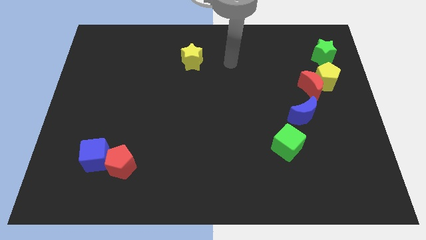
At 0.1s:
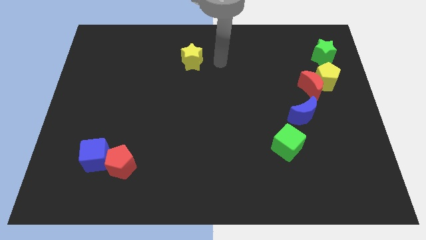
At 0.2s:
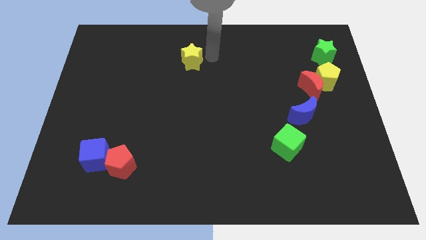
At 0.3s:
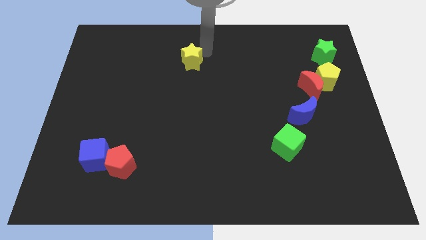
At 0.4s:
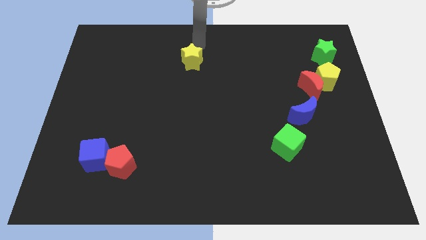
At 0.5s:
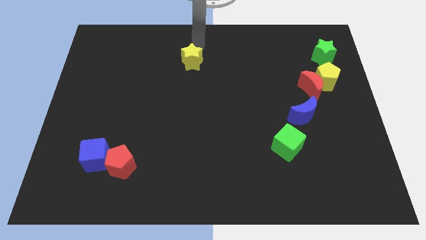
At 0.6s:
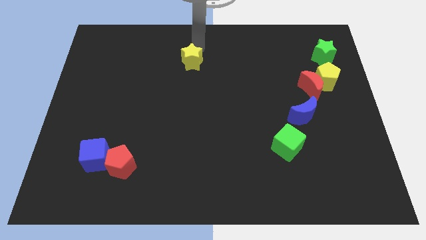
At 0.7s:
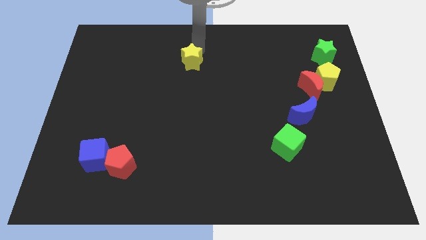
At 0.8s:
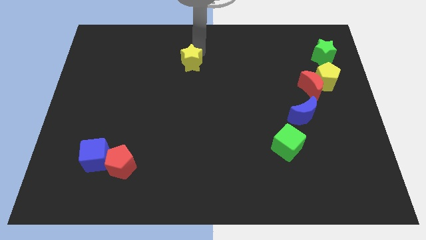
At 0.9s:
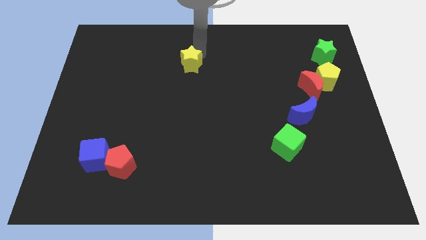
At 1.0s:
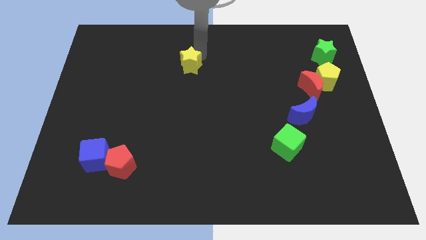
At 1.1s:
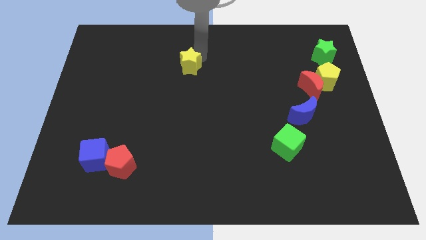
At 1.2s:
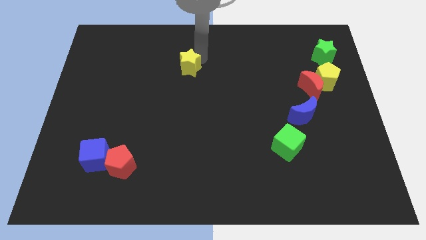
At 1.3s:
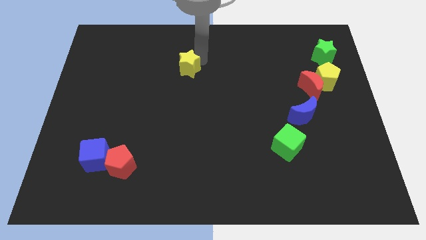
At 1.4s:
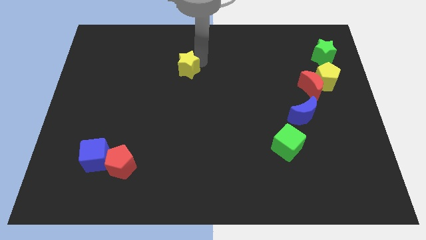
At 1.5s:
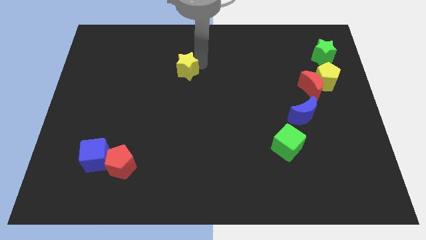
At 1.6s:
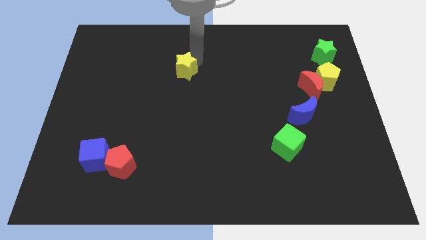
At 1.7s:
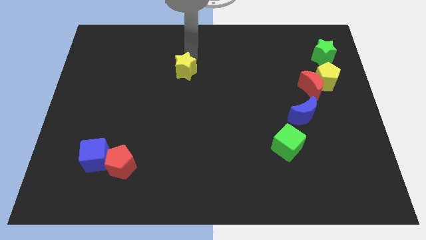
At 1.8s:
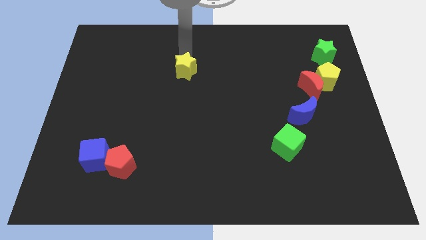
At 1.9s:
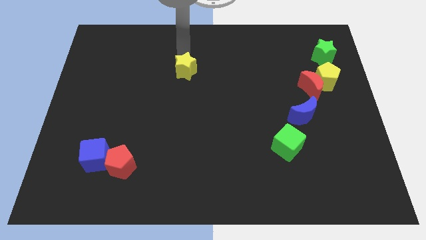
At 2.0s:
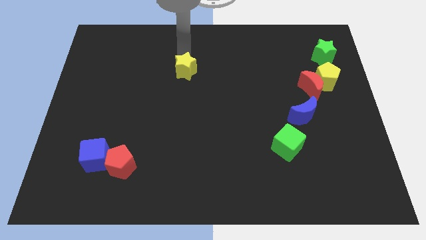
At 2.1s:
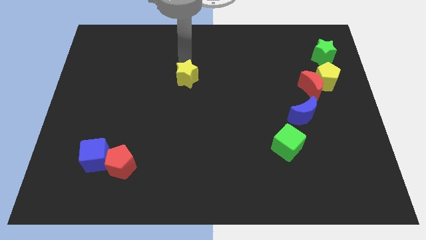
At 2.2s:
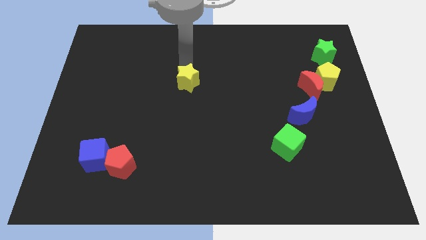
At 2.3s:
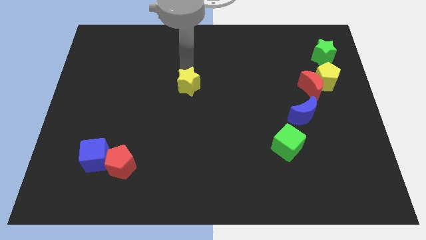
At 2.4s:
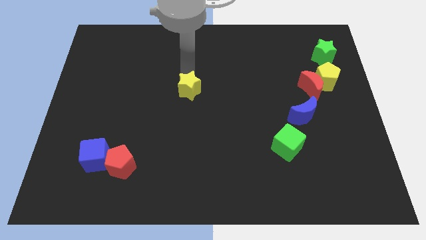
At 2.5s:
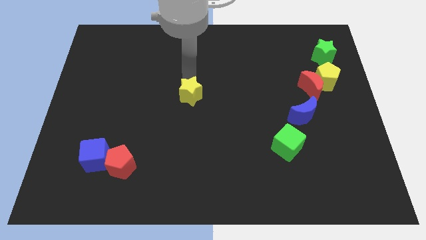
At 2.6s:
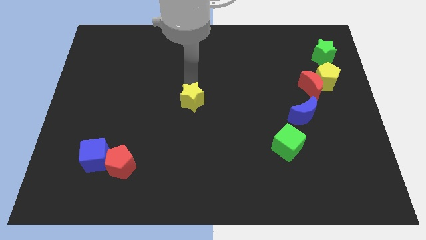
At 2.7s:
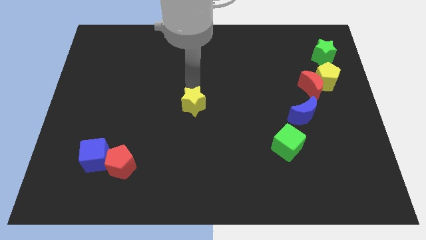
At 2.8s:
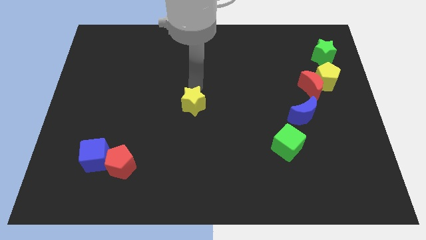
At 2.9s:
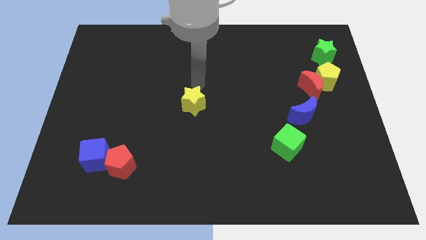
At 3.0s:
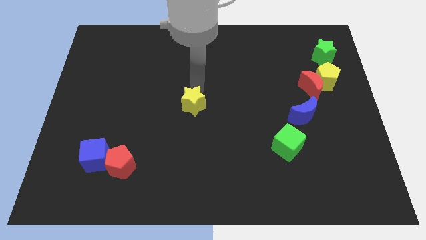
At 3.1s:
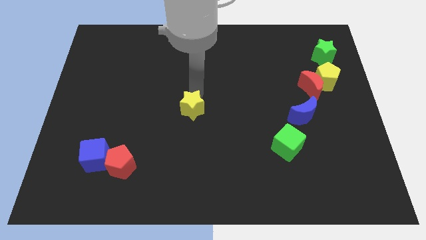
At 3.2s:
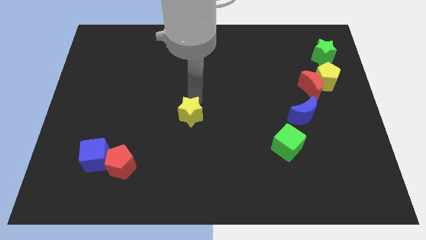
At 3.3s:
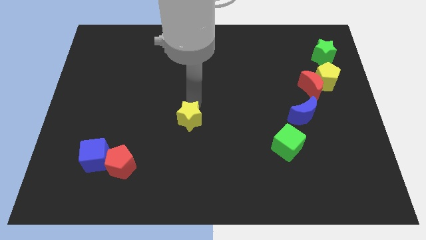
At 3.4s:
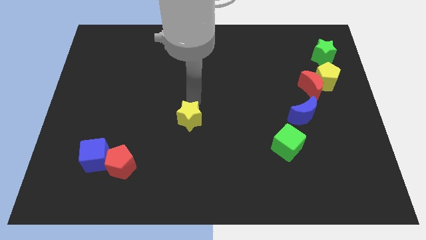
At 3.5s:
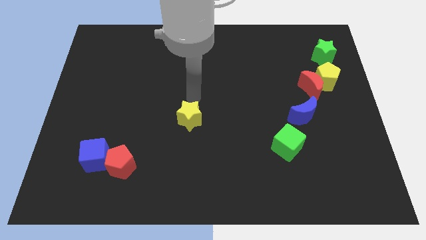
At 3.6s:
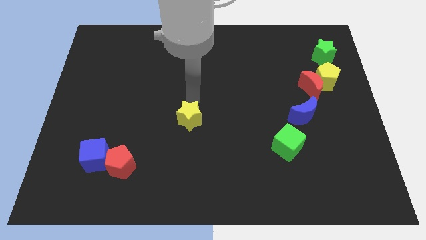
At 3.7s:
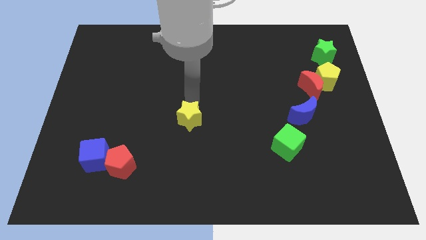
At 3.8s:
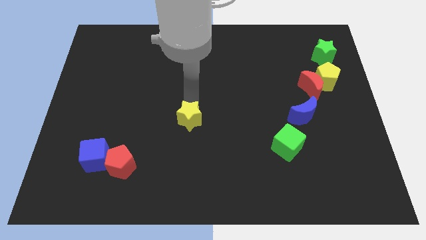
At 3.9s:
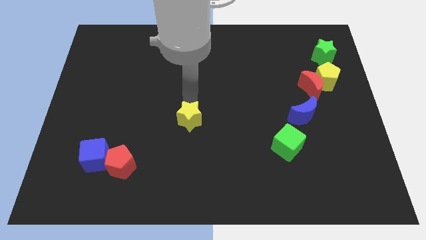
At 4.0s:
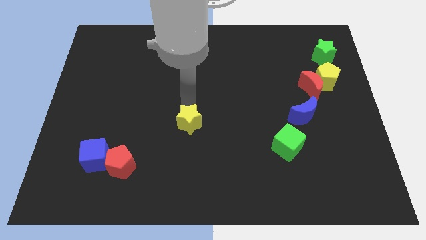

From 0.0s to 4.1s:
push the yellow star downwards

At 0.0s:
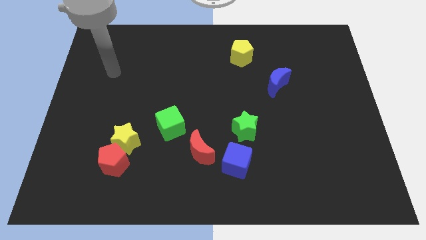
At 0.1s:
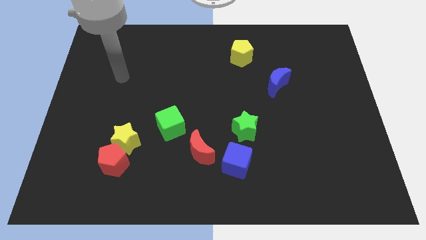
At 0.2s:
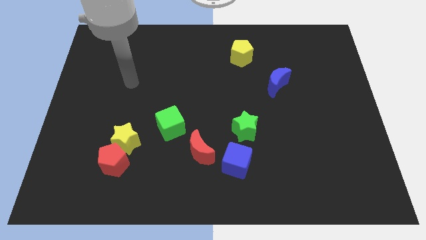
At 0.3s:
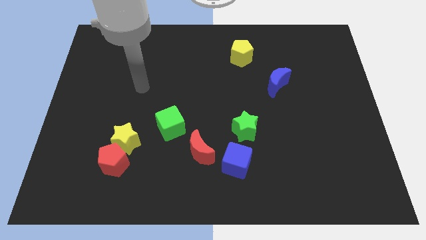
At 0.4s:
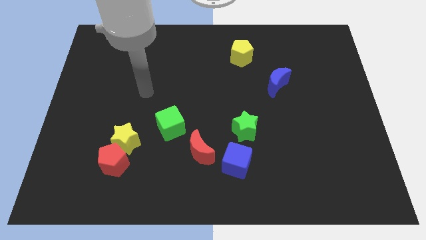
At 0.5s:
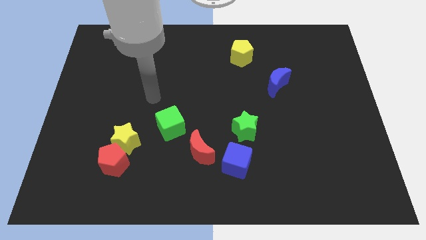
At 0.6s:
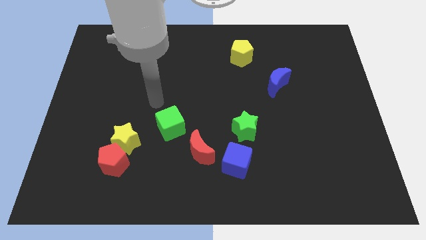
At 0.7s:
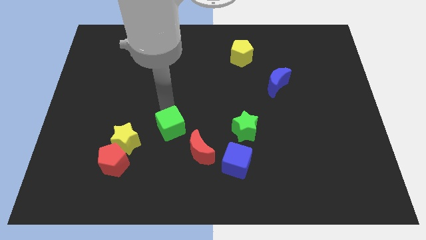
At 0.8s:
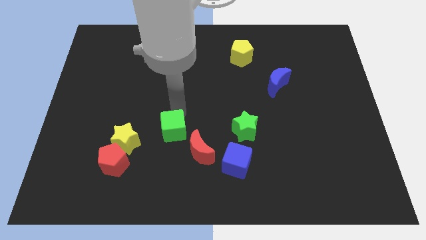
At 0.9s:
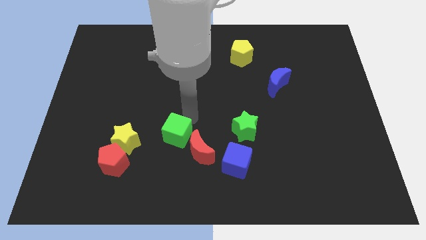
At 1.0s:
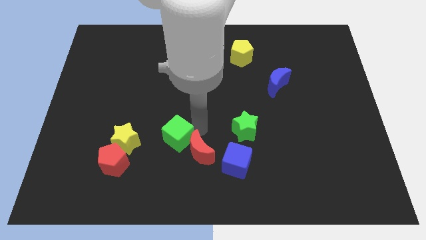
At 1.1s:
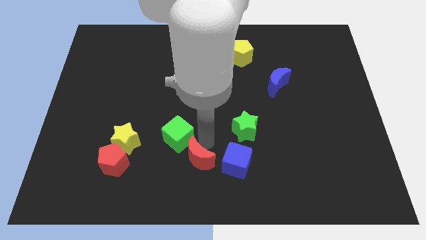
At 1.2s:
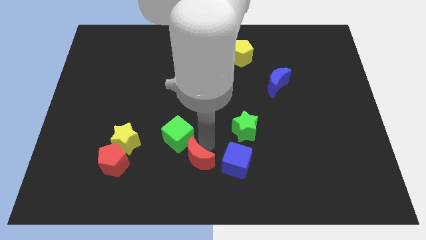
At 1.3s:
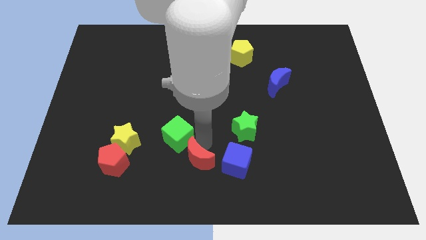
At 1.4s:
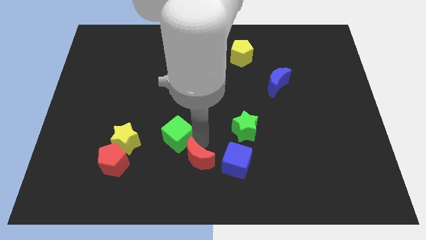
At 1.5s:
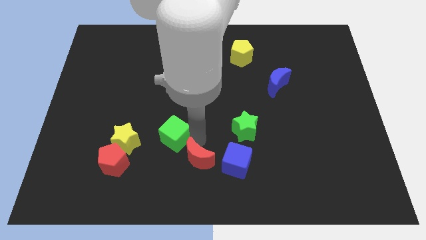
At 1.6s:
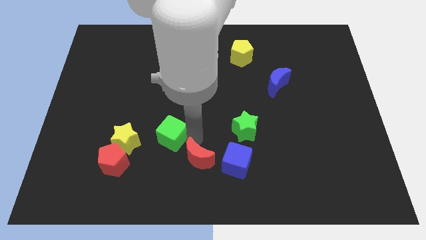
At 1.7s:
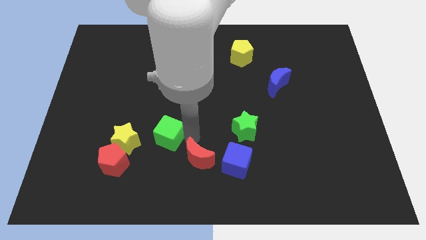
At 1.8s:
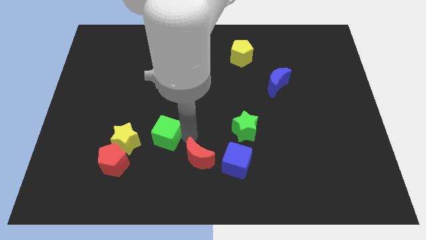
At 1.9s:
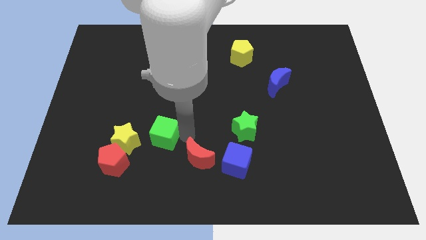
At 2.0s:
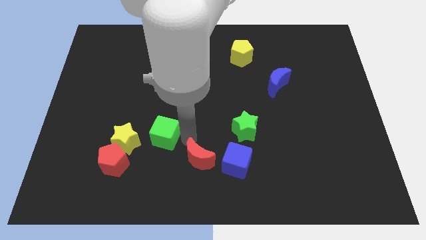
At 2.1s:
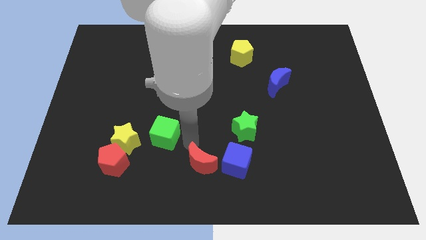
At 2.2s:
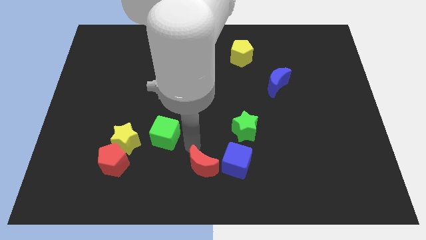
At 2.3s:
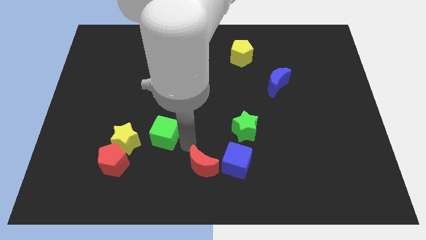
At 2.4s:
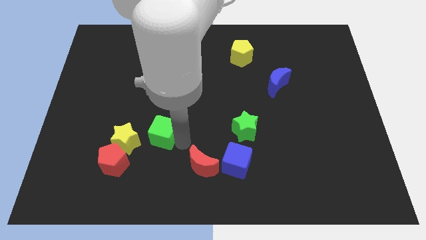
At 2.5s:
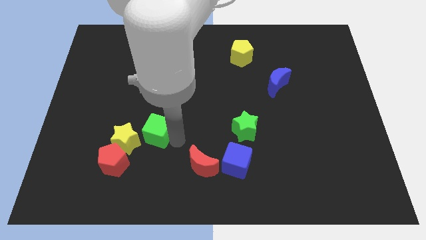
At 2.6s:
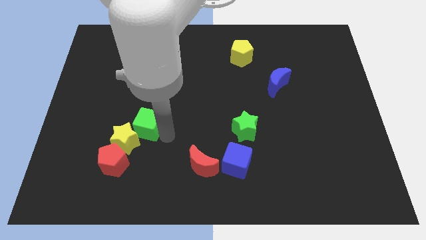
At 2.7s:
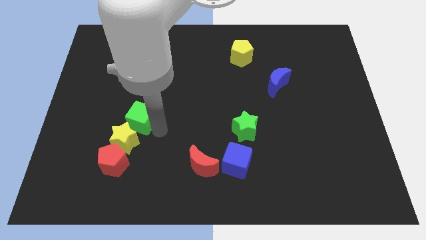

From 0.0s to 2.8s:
slightly slide the green cube to the left

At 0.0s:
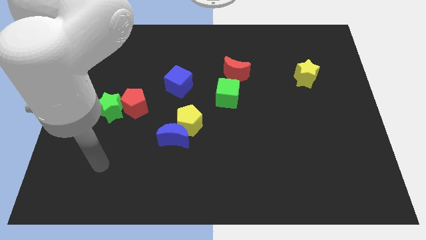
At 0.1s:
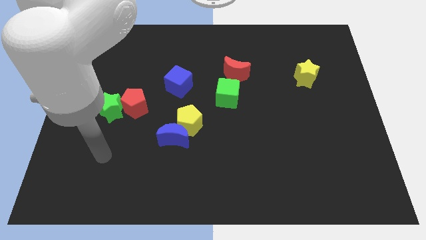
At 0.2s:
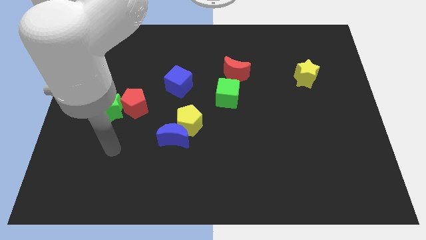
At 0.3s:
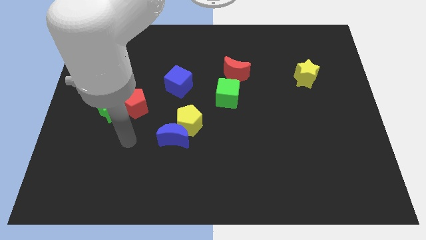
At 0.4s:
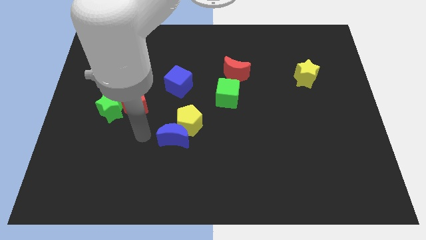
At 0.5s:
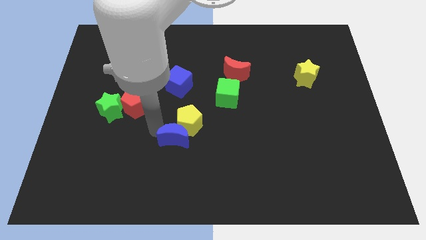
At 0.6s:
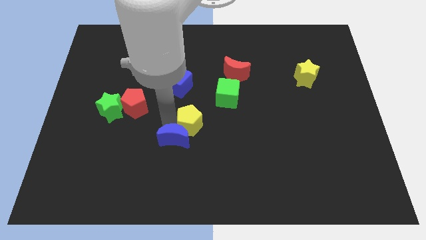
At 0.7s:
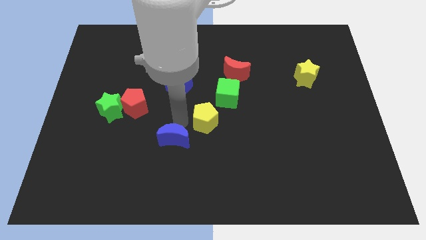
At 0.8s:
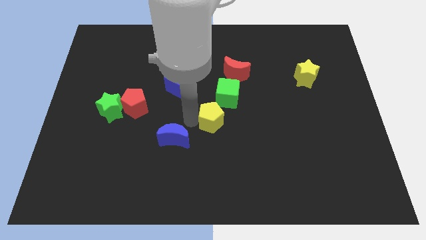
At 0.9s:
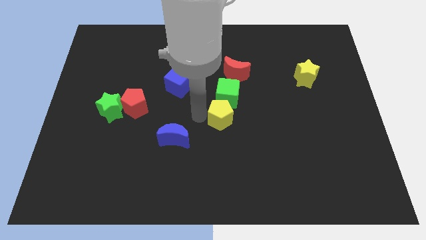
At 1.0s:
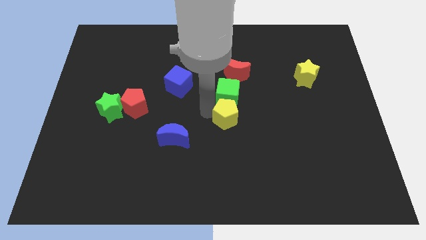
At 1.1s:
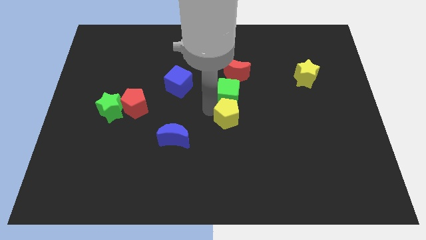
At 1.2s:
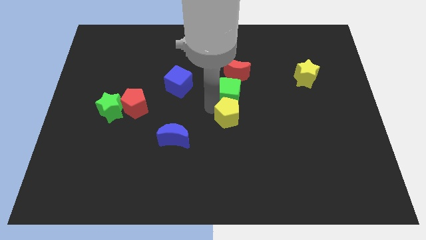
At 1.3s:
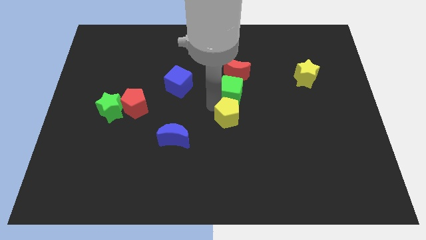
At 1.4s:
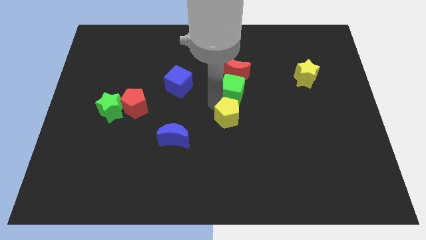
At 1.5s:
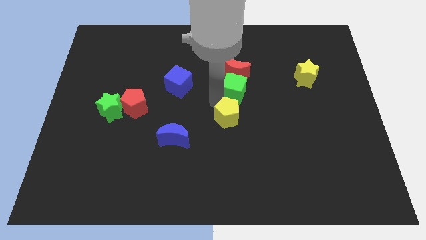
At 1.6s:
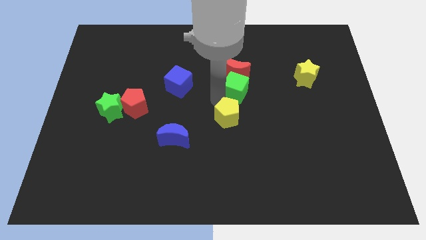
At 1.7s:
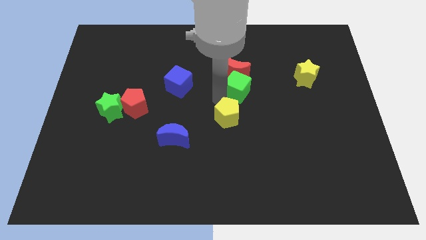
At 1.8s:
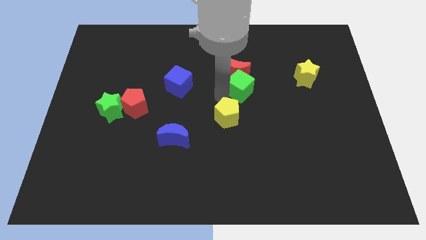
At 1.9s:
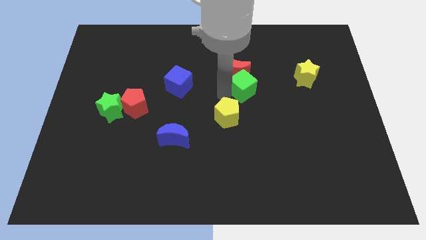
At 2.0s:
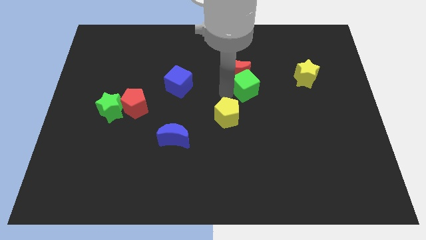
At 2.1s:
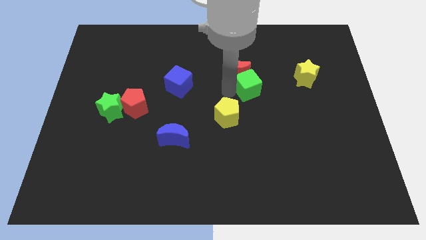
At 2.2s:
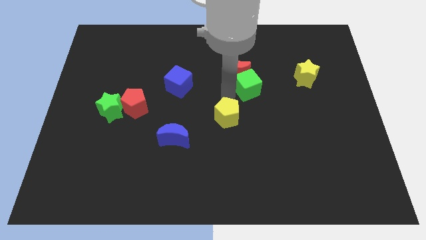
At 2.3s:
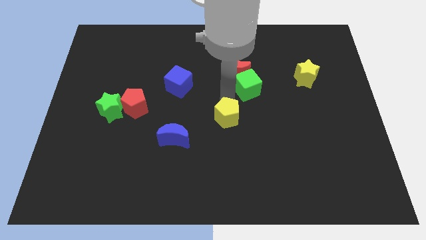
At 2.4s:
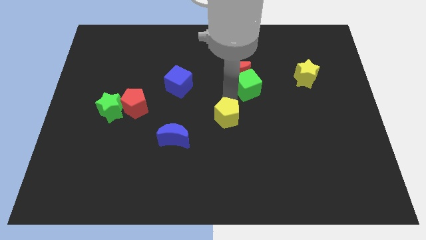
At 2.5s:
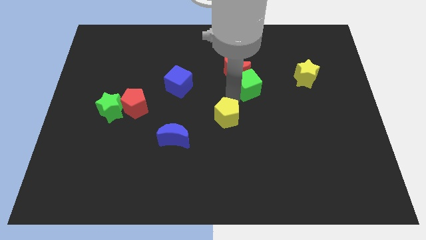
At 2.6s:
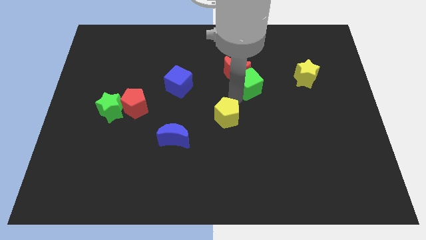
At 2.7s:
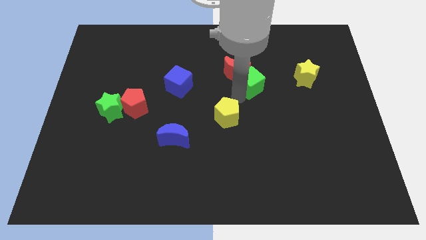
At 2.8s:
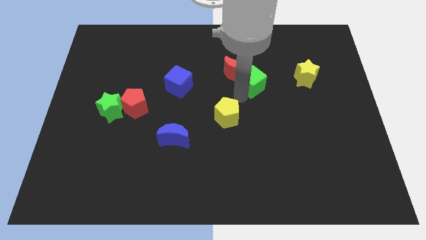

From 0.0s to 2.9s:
slide the green cube a little upwards and to the right diagonally
